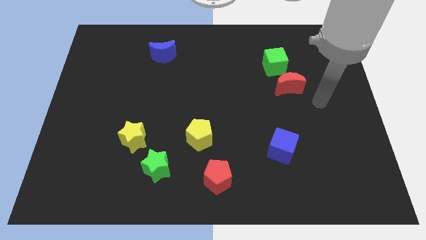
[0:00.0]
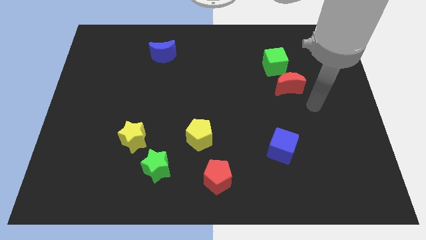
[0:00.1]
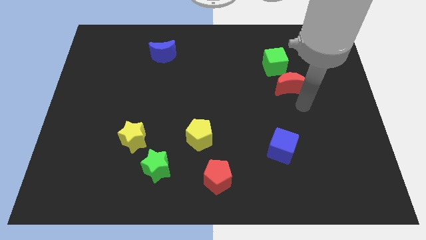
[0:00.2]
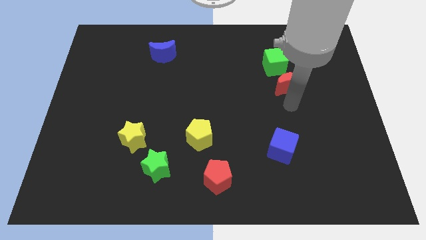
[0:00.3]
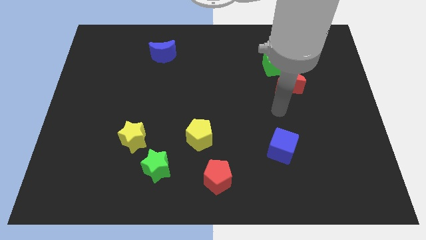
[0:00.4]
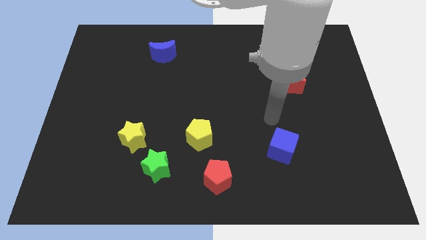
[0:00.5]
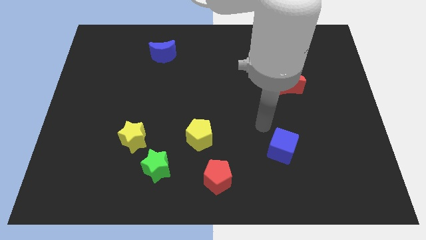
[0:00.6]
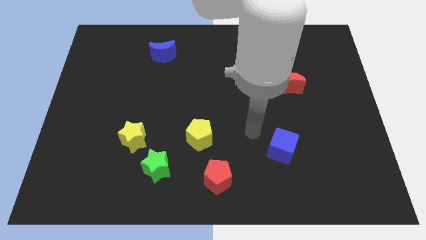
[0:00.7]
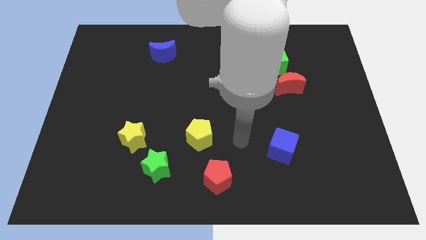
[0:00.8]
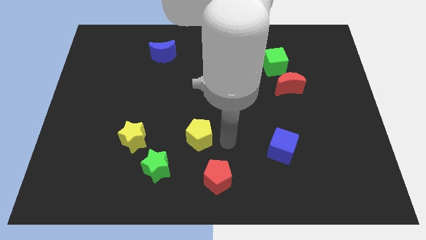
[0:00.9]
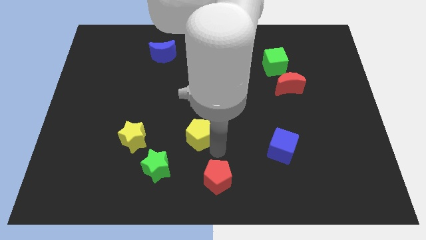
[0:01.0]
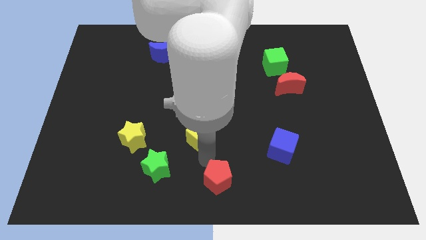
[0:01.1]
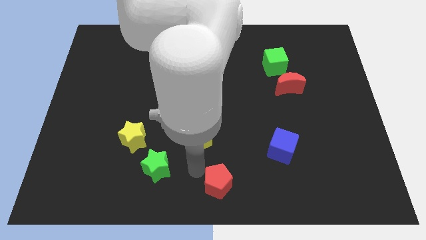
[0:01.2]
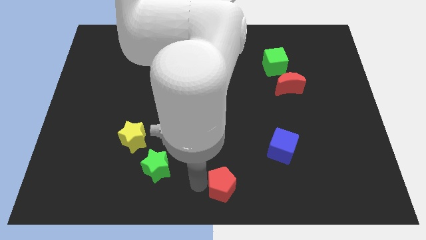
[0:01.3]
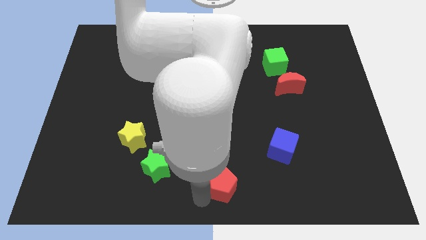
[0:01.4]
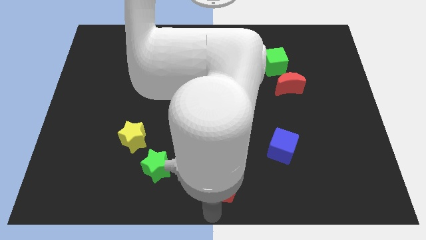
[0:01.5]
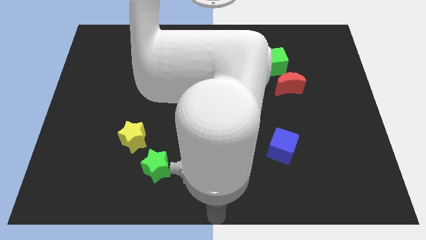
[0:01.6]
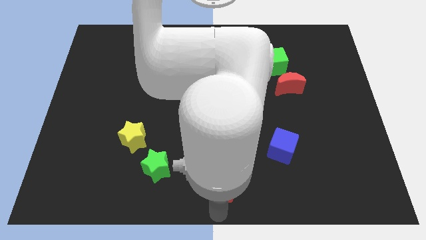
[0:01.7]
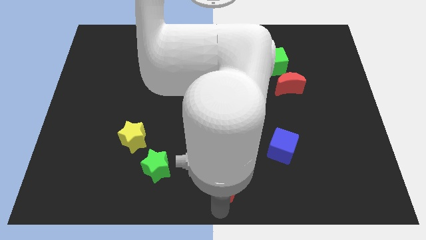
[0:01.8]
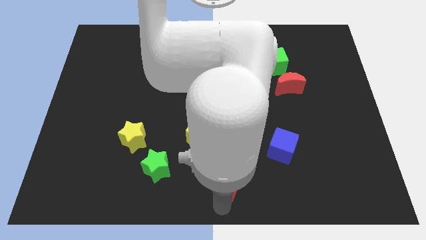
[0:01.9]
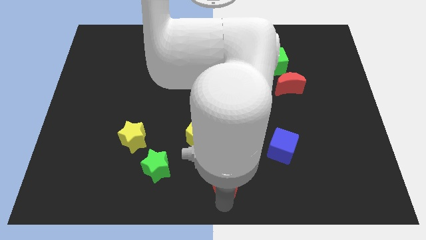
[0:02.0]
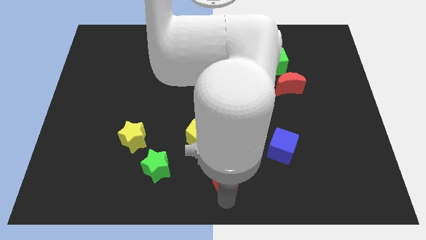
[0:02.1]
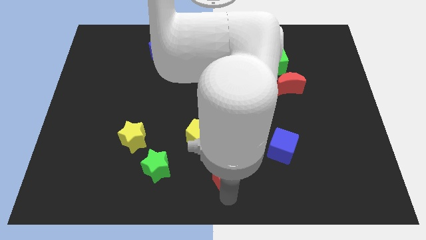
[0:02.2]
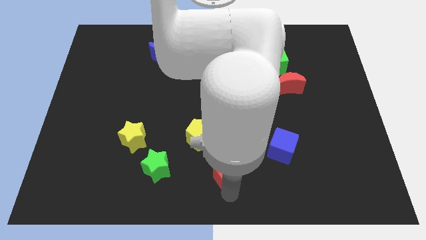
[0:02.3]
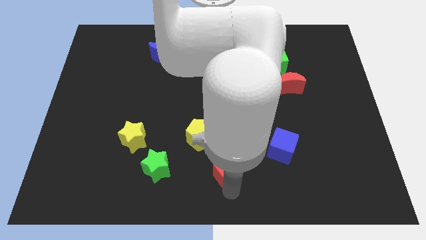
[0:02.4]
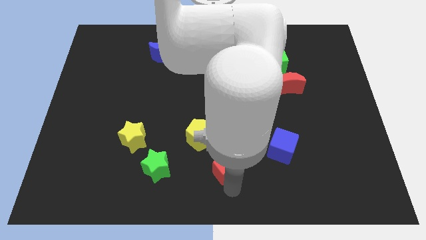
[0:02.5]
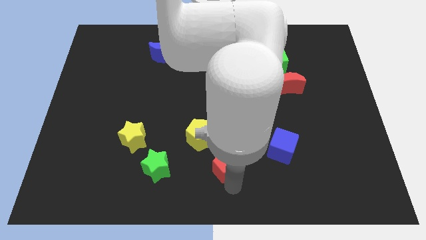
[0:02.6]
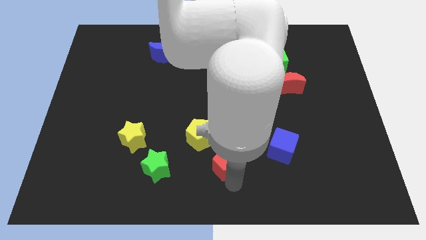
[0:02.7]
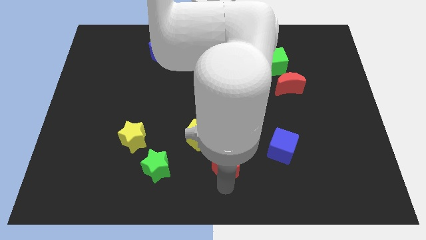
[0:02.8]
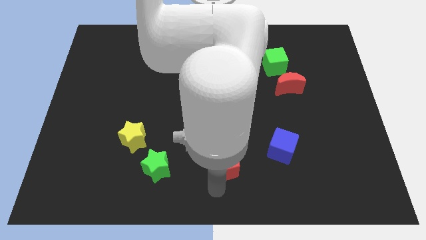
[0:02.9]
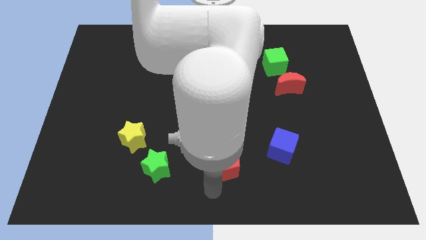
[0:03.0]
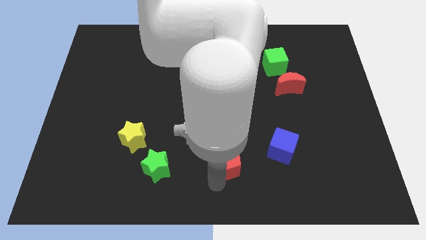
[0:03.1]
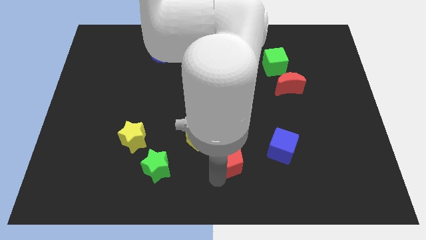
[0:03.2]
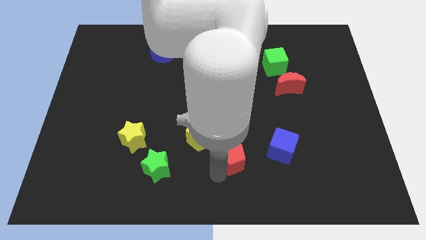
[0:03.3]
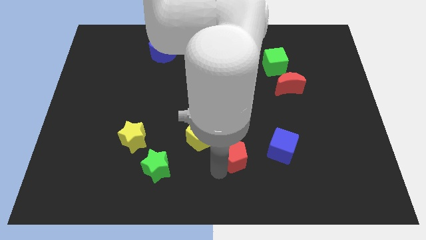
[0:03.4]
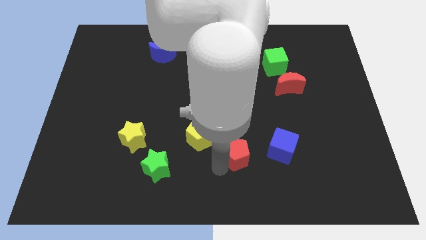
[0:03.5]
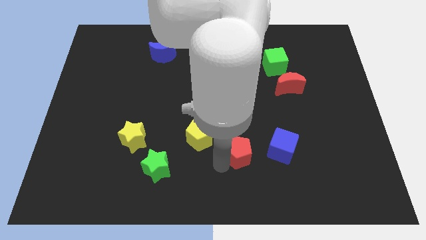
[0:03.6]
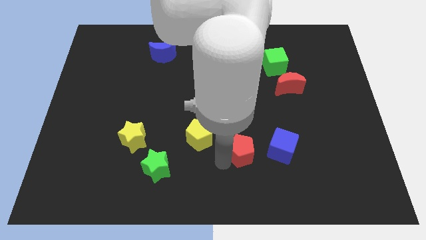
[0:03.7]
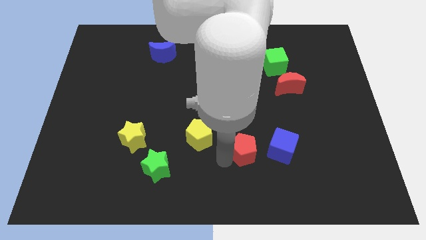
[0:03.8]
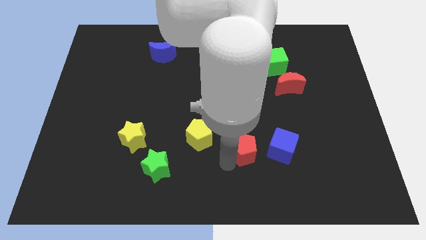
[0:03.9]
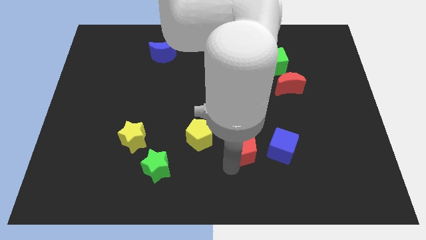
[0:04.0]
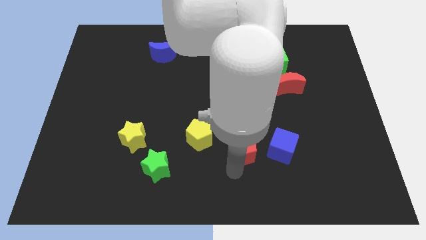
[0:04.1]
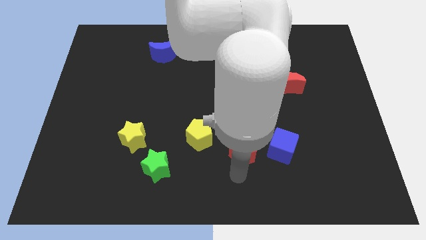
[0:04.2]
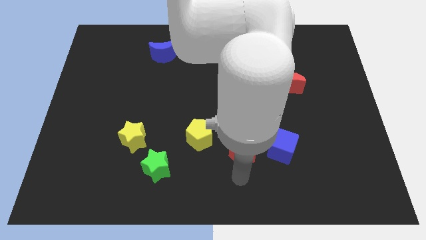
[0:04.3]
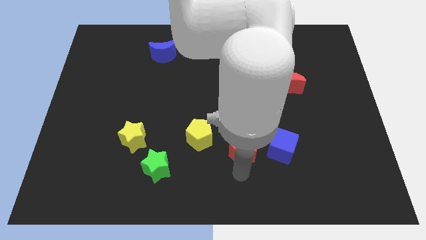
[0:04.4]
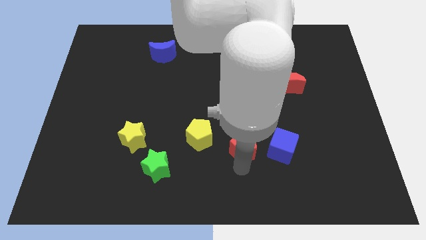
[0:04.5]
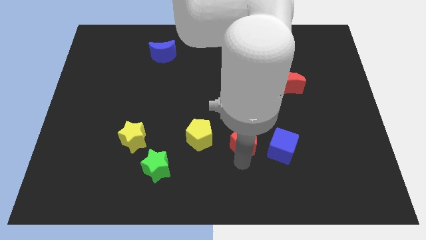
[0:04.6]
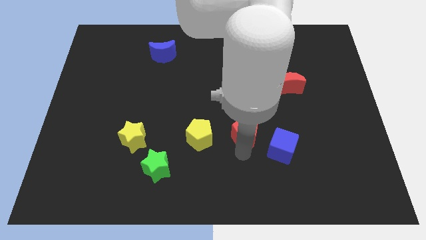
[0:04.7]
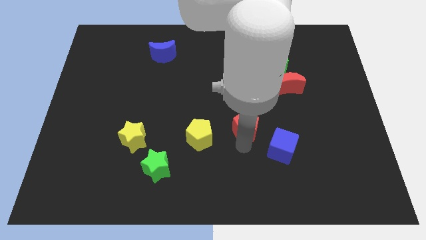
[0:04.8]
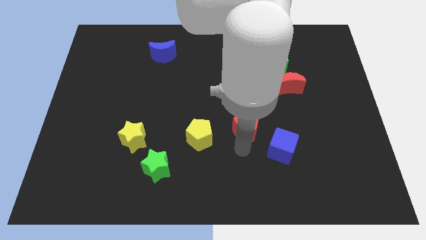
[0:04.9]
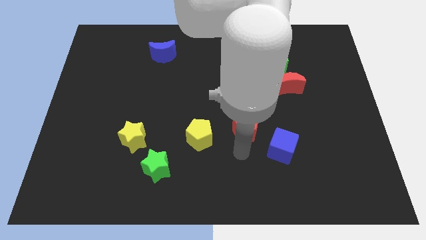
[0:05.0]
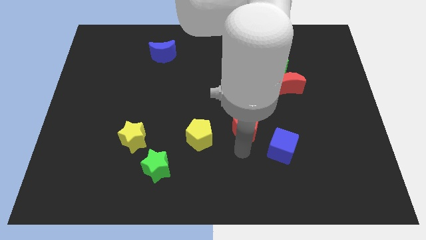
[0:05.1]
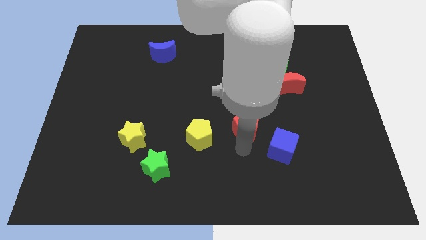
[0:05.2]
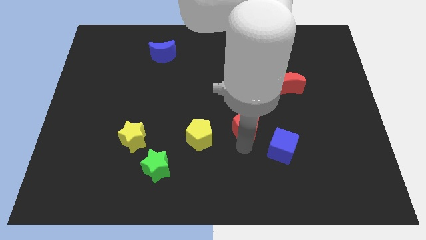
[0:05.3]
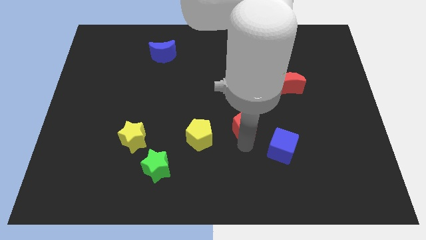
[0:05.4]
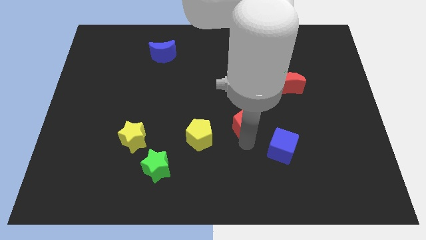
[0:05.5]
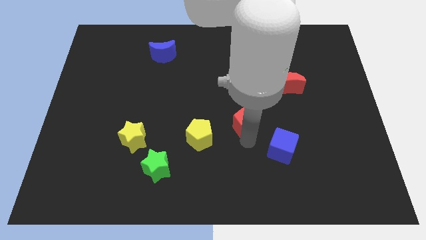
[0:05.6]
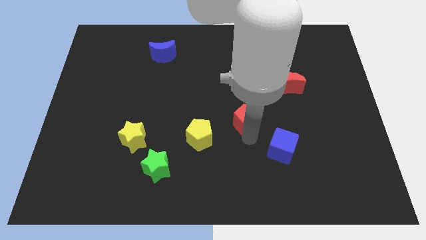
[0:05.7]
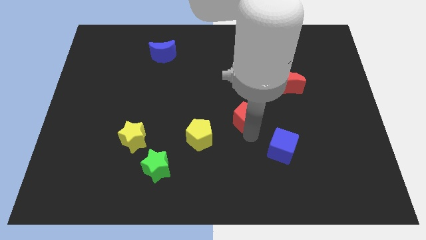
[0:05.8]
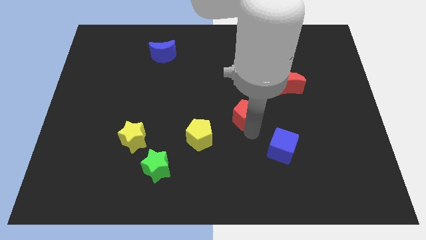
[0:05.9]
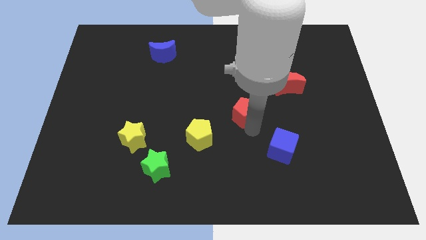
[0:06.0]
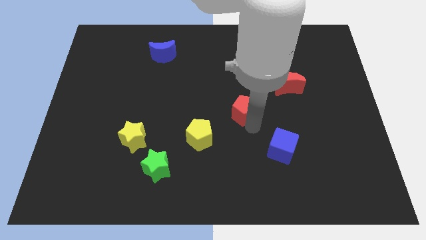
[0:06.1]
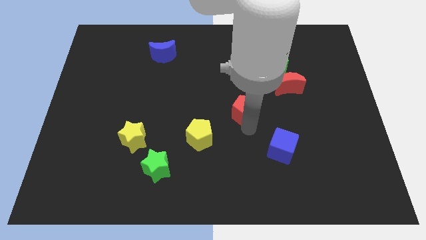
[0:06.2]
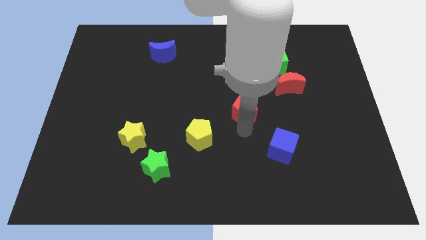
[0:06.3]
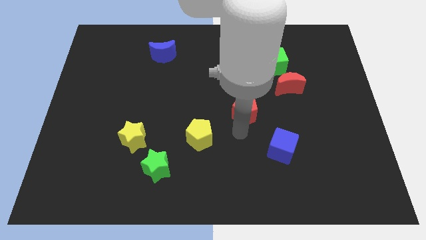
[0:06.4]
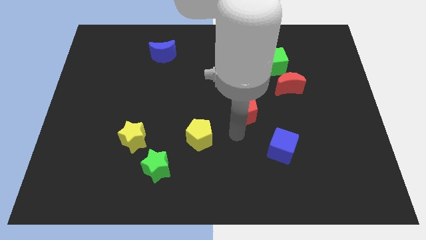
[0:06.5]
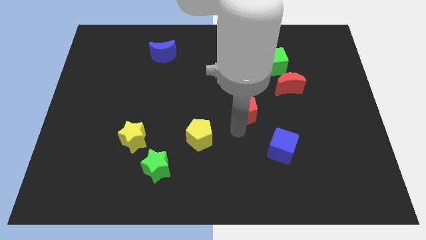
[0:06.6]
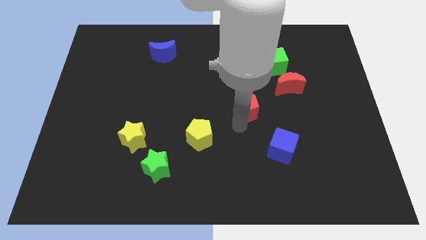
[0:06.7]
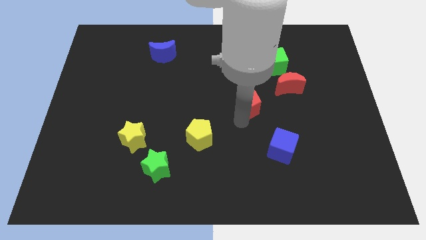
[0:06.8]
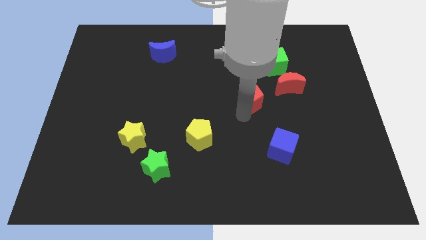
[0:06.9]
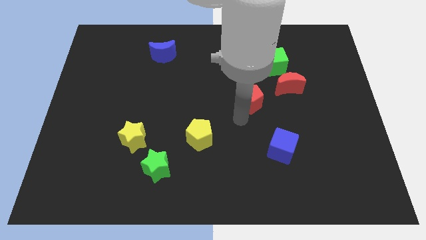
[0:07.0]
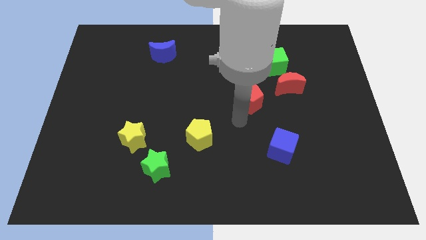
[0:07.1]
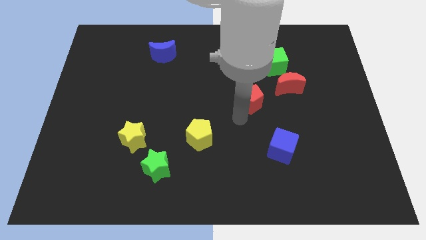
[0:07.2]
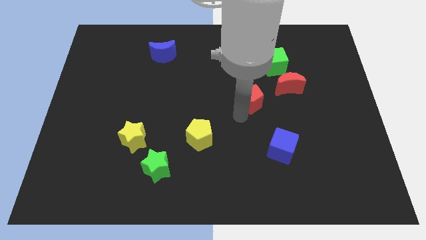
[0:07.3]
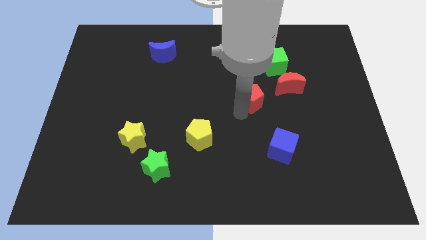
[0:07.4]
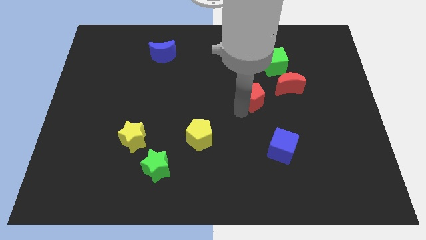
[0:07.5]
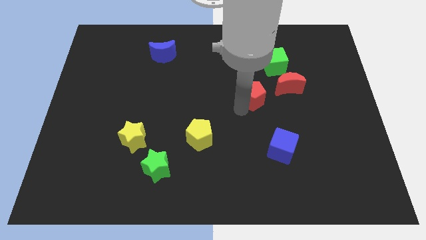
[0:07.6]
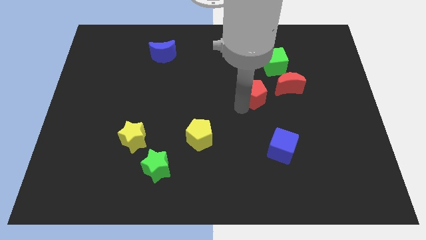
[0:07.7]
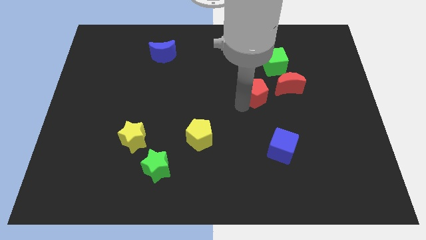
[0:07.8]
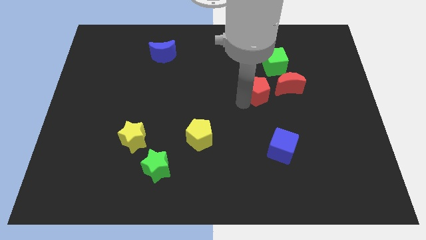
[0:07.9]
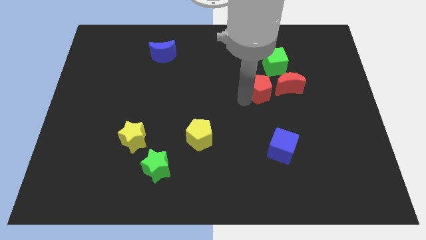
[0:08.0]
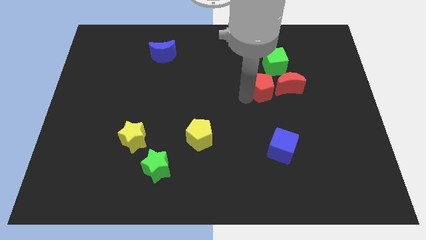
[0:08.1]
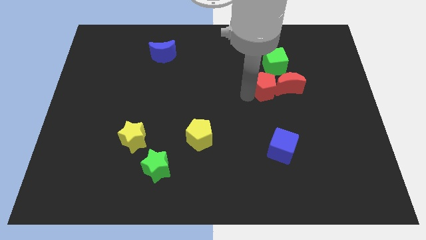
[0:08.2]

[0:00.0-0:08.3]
slide the red pentagon to the top left side of the red moon
